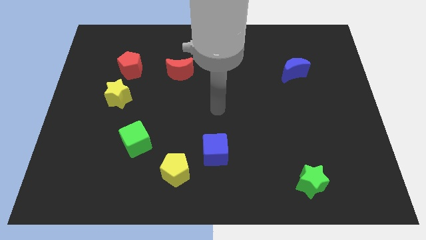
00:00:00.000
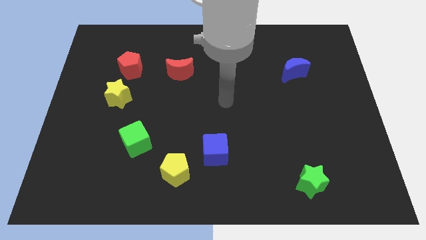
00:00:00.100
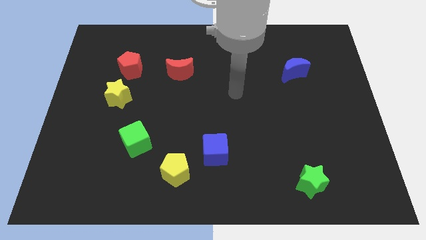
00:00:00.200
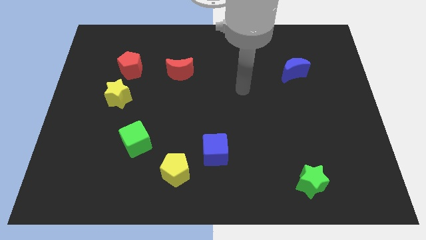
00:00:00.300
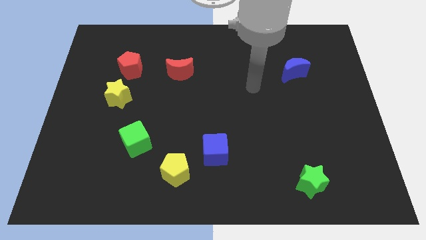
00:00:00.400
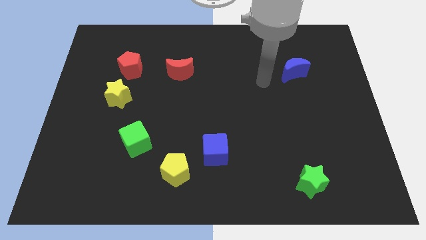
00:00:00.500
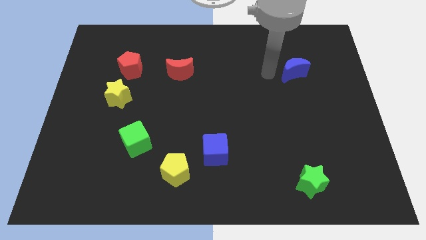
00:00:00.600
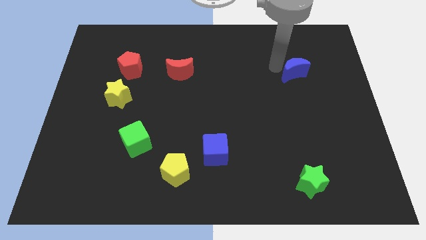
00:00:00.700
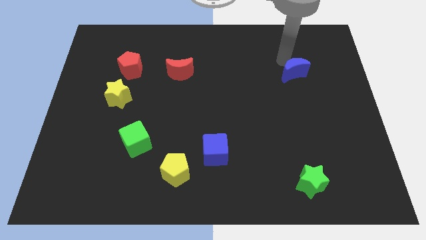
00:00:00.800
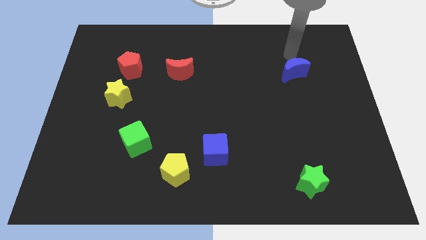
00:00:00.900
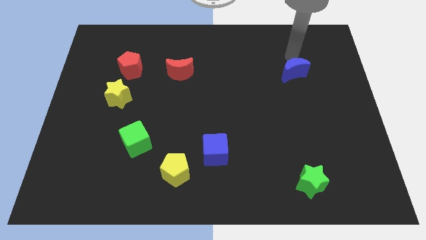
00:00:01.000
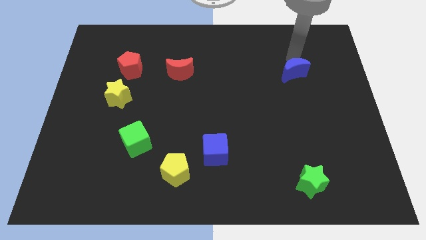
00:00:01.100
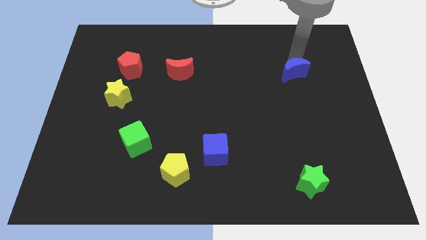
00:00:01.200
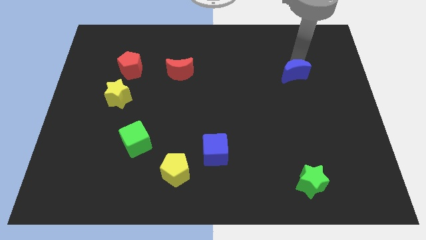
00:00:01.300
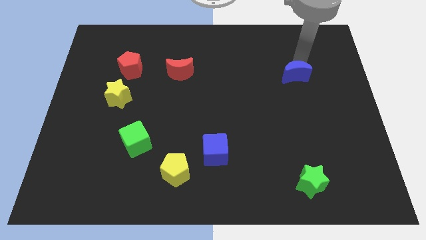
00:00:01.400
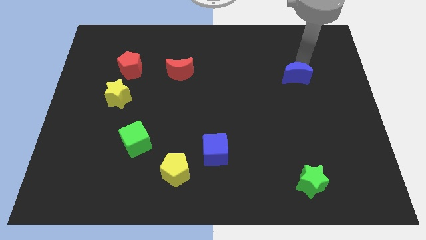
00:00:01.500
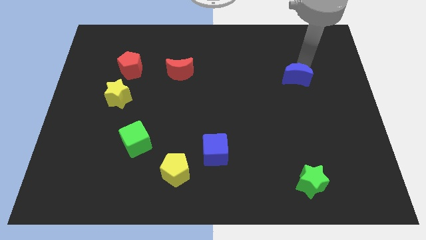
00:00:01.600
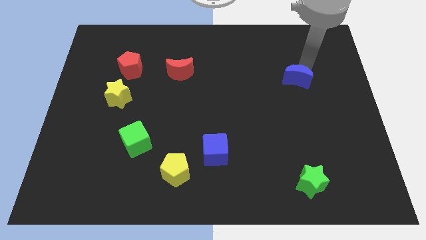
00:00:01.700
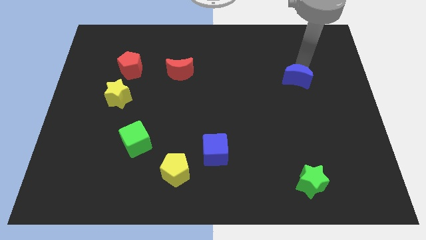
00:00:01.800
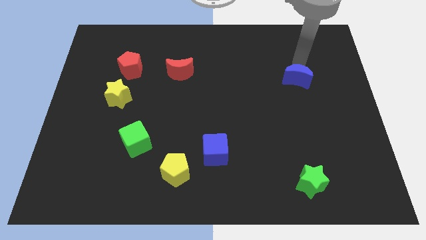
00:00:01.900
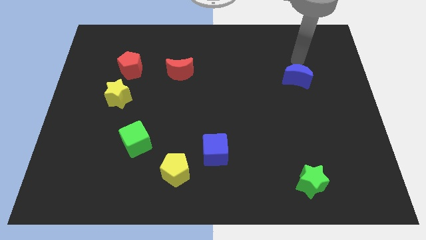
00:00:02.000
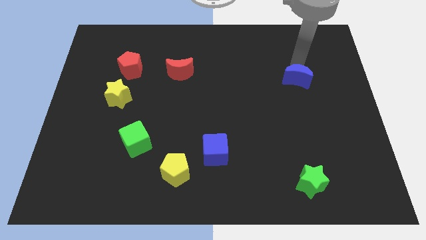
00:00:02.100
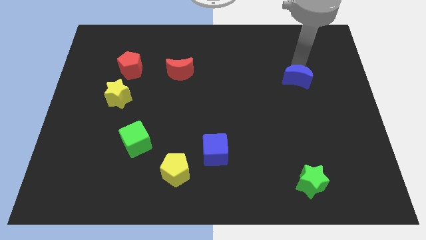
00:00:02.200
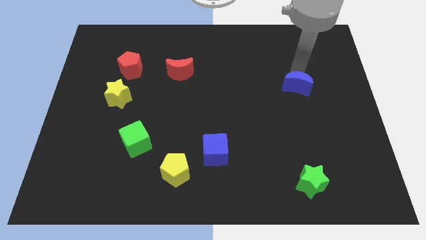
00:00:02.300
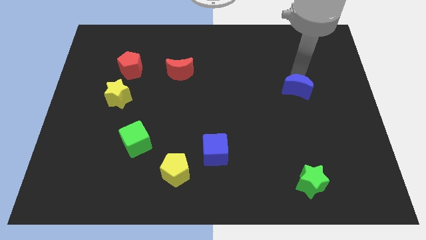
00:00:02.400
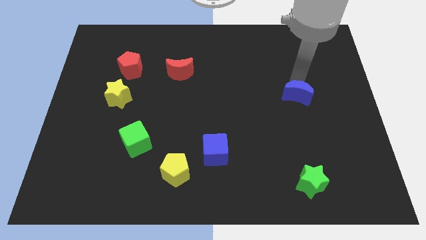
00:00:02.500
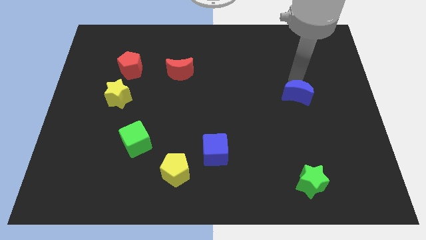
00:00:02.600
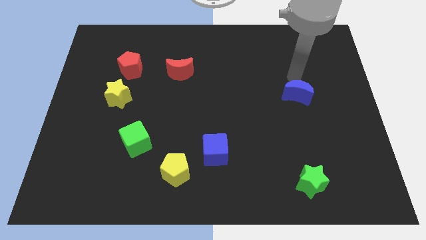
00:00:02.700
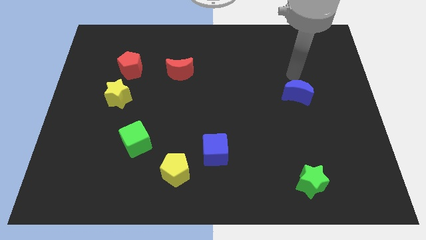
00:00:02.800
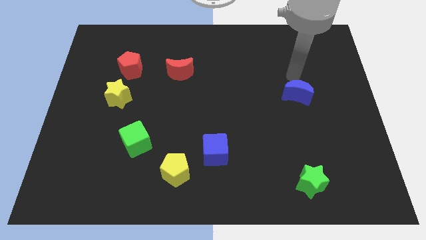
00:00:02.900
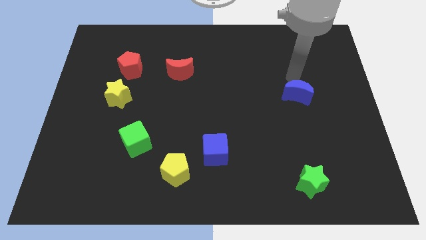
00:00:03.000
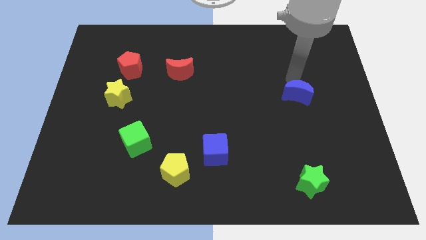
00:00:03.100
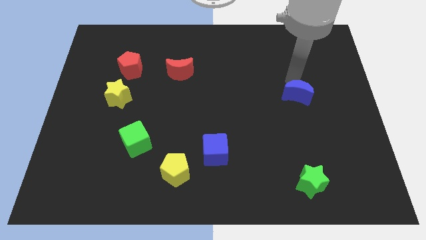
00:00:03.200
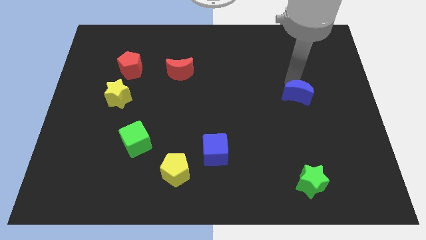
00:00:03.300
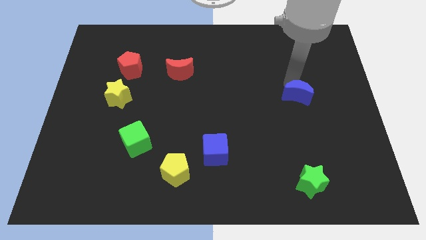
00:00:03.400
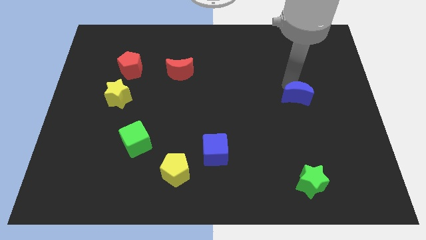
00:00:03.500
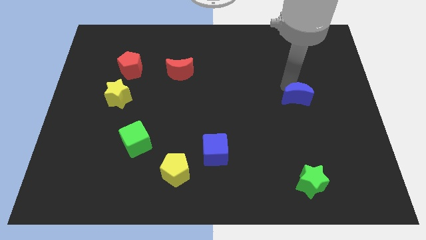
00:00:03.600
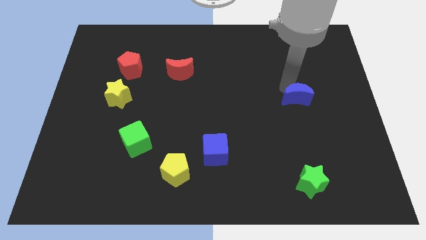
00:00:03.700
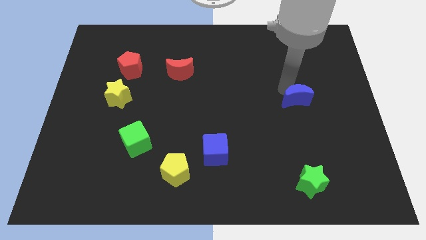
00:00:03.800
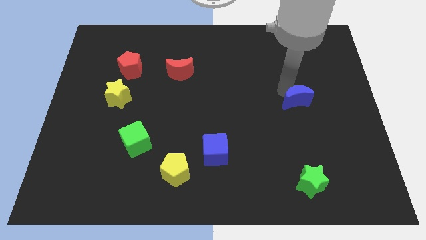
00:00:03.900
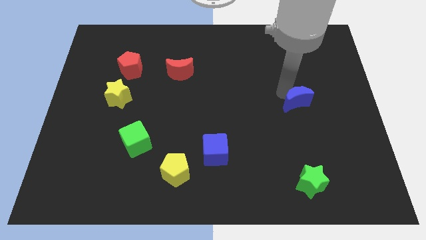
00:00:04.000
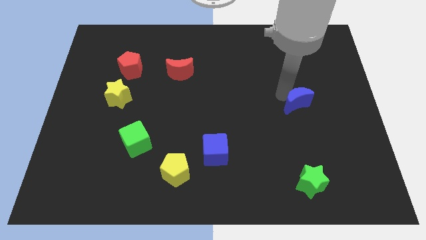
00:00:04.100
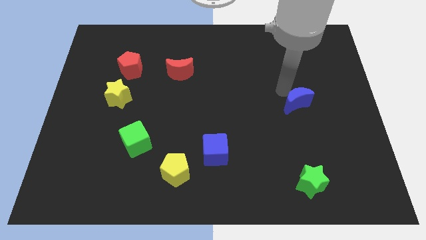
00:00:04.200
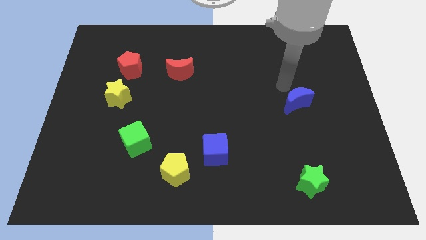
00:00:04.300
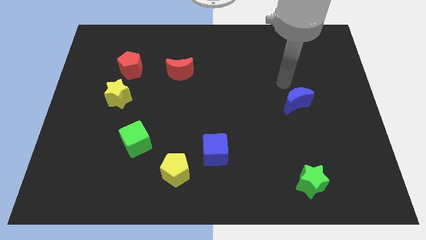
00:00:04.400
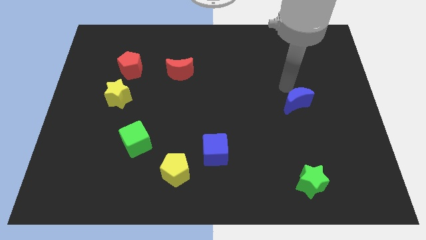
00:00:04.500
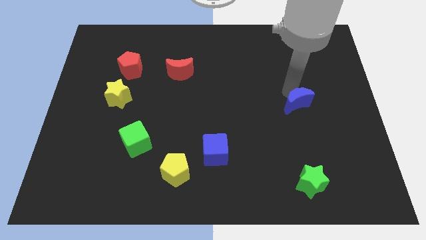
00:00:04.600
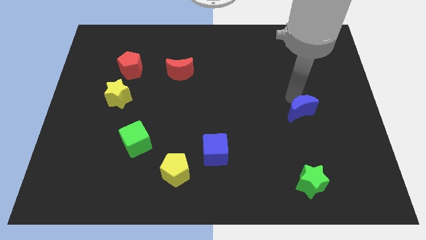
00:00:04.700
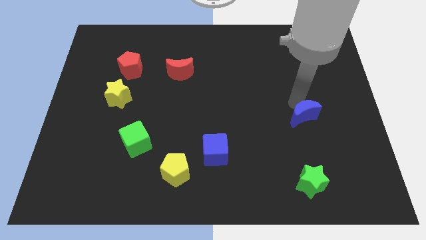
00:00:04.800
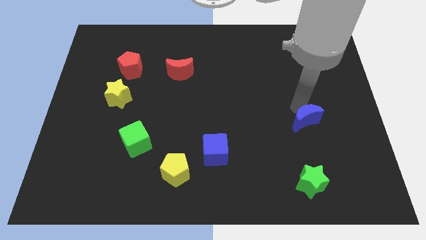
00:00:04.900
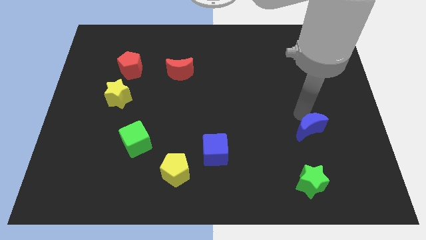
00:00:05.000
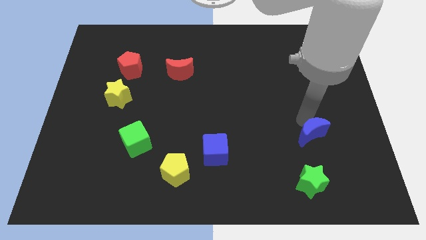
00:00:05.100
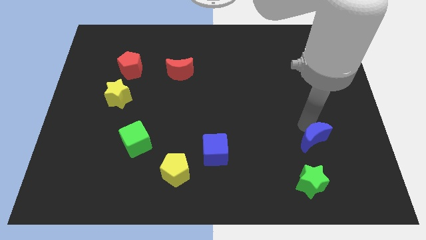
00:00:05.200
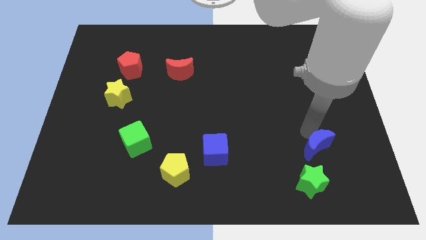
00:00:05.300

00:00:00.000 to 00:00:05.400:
move the blue moon to the top right of the green star

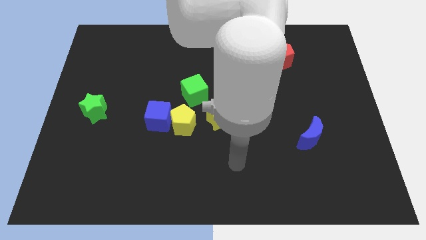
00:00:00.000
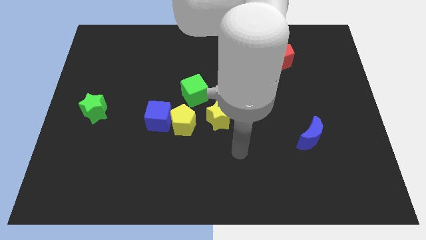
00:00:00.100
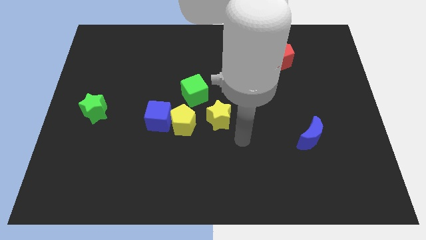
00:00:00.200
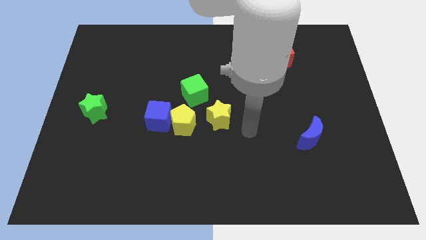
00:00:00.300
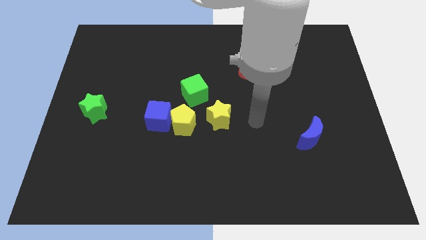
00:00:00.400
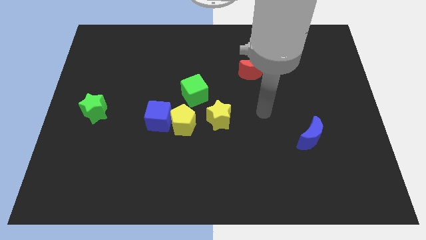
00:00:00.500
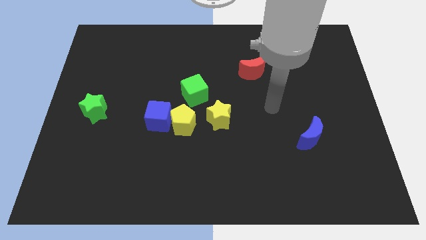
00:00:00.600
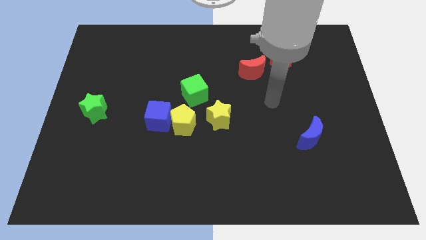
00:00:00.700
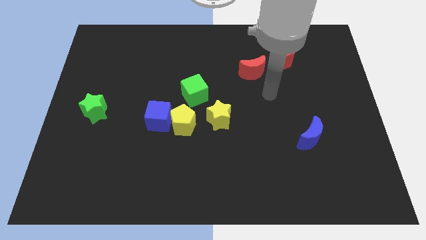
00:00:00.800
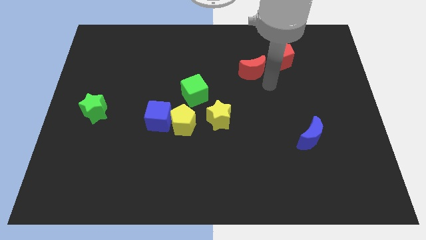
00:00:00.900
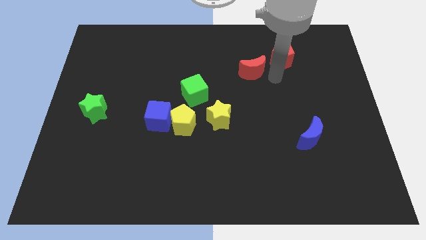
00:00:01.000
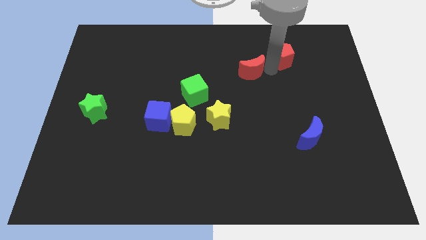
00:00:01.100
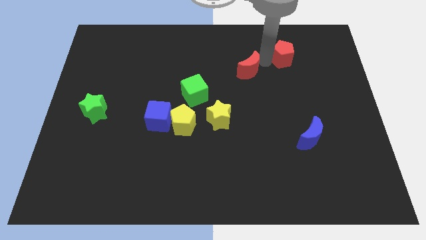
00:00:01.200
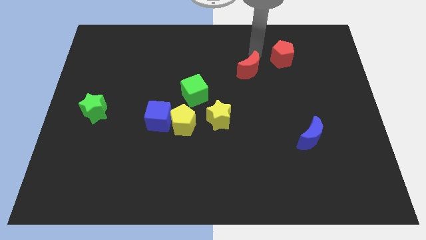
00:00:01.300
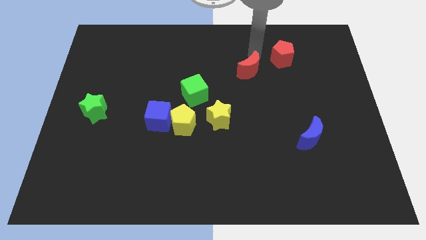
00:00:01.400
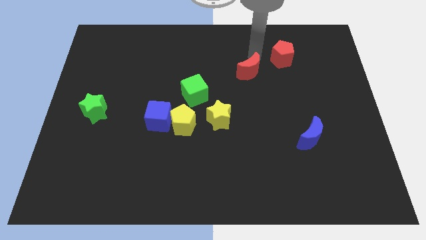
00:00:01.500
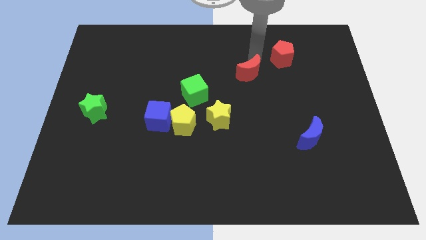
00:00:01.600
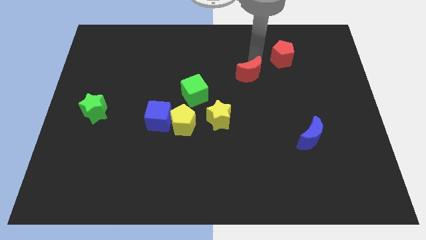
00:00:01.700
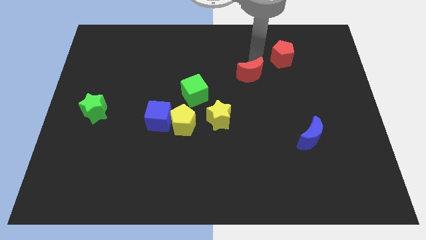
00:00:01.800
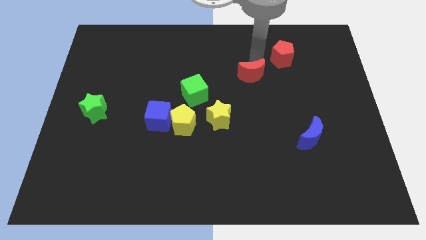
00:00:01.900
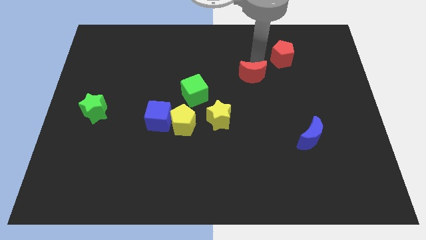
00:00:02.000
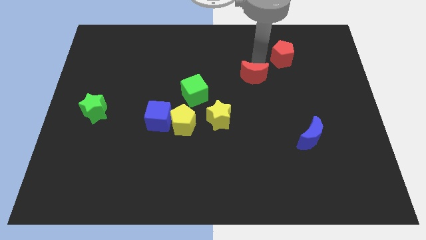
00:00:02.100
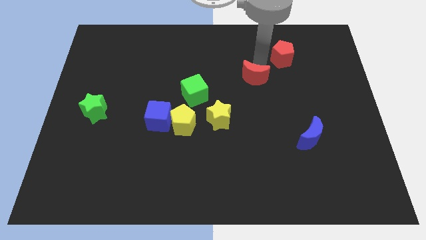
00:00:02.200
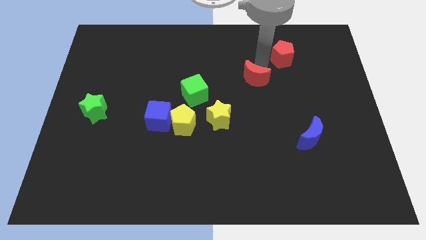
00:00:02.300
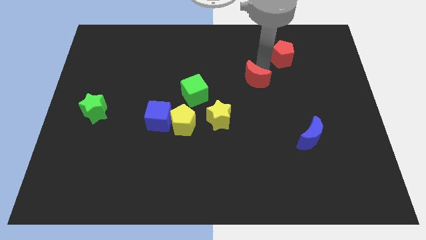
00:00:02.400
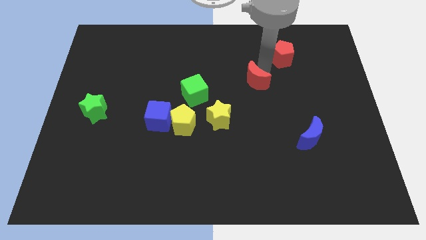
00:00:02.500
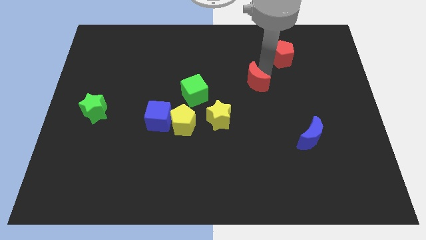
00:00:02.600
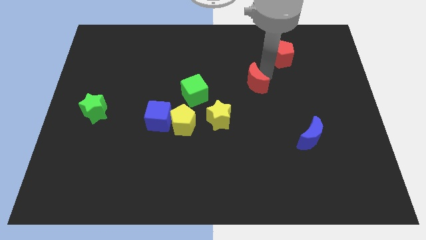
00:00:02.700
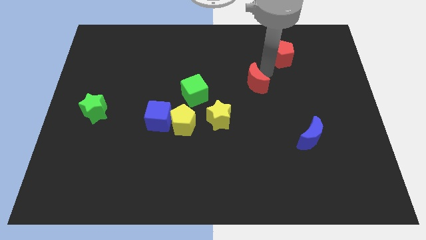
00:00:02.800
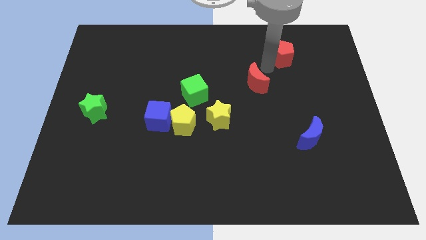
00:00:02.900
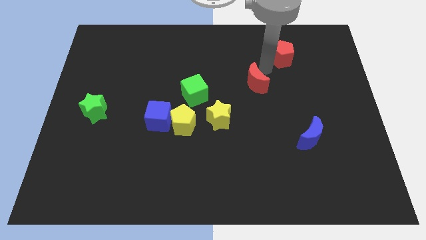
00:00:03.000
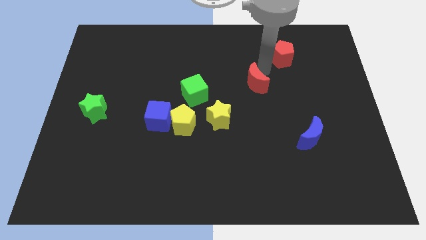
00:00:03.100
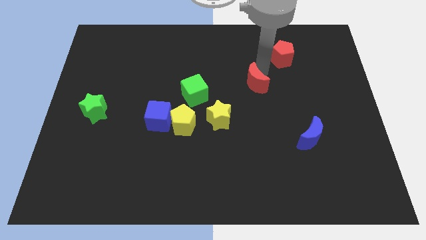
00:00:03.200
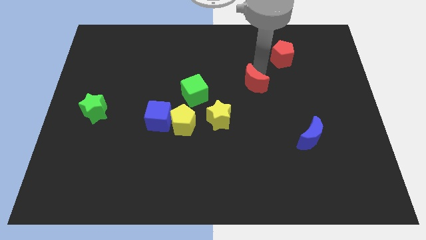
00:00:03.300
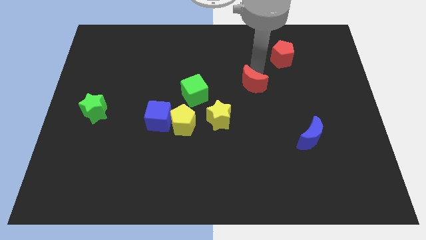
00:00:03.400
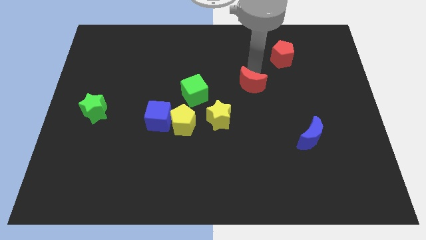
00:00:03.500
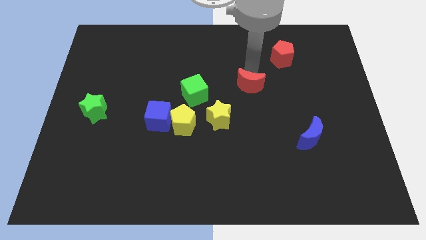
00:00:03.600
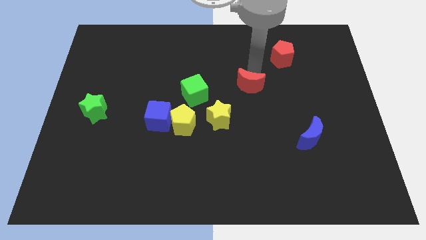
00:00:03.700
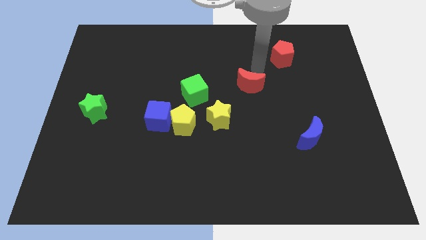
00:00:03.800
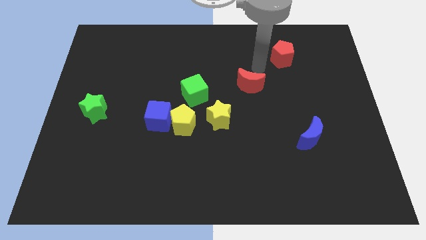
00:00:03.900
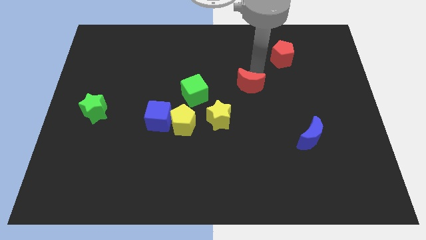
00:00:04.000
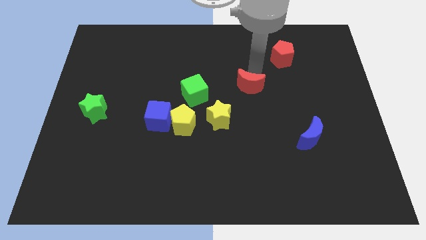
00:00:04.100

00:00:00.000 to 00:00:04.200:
push the red moon diagonally up and to the right of the yellow star
